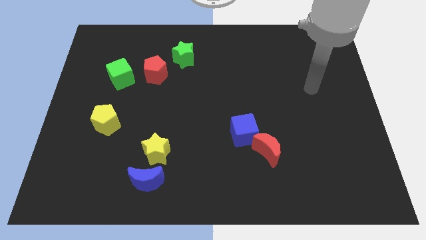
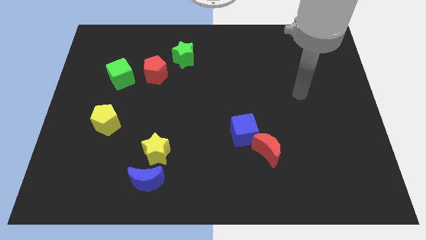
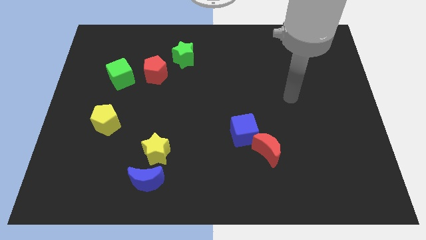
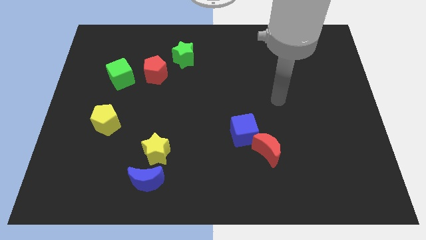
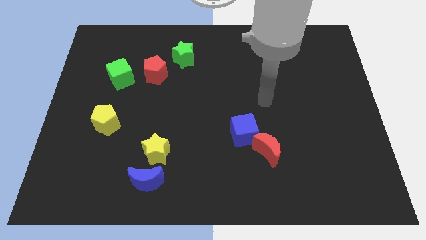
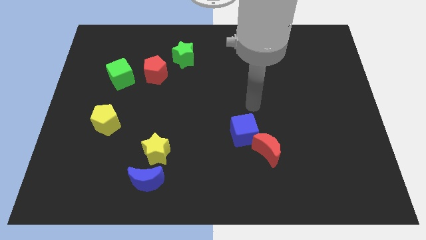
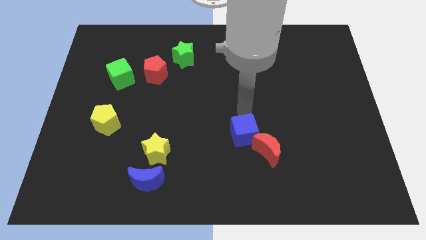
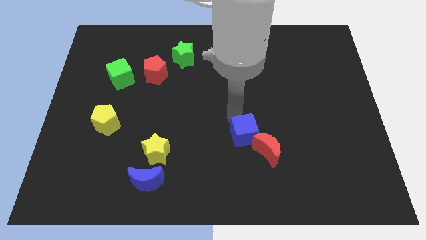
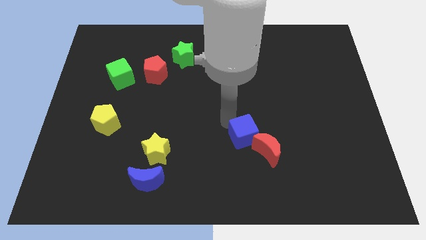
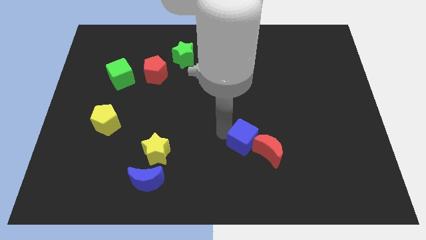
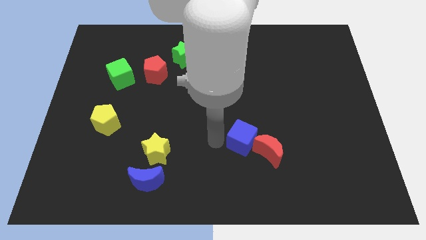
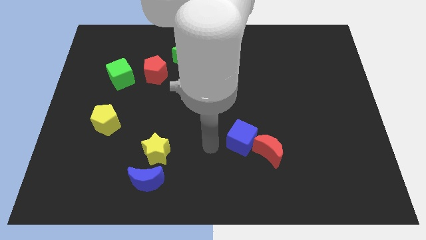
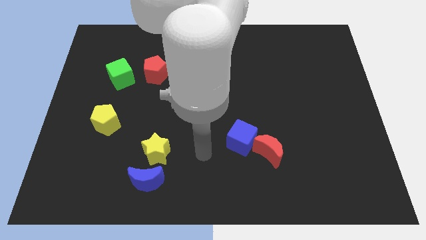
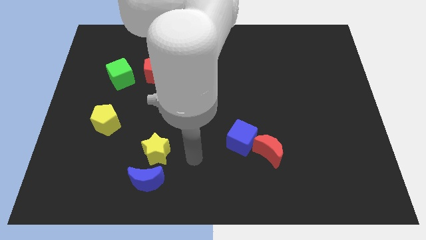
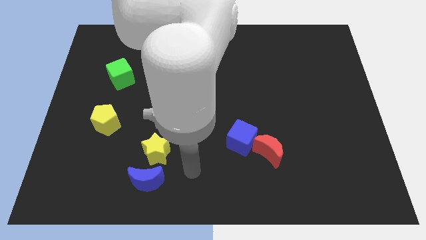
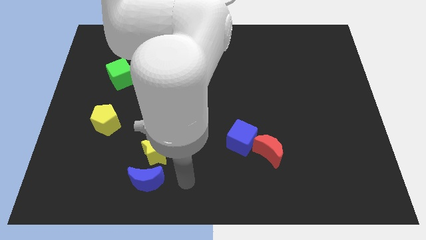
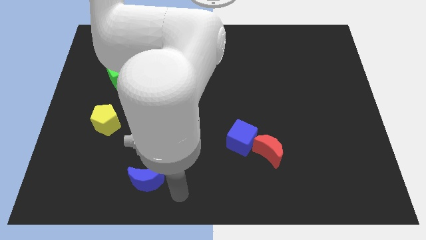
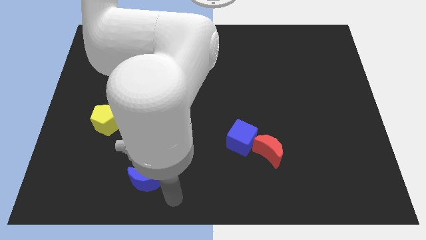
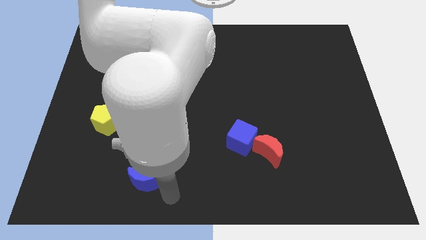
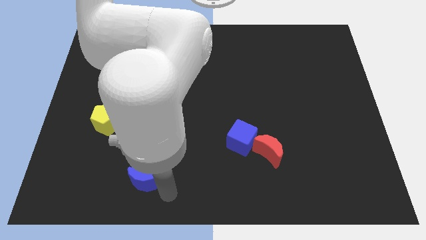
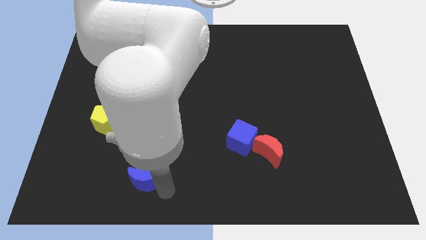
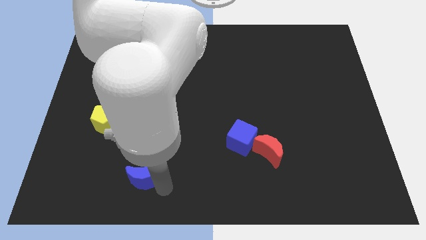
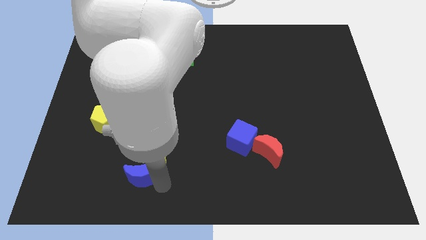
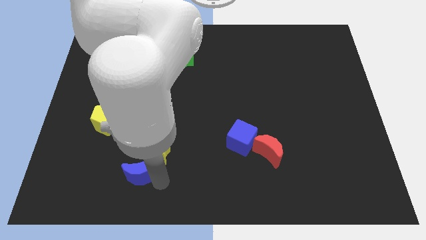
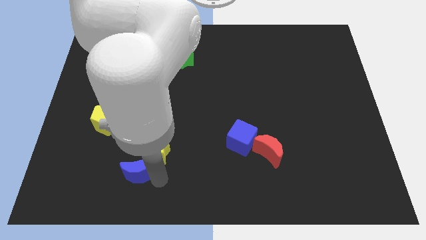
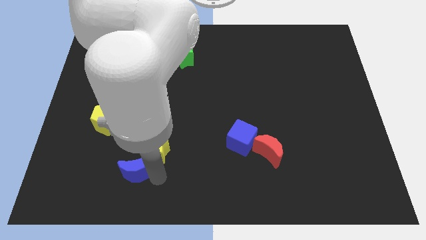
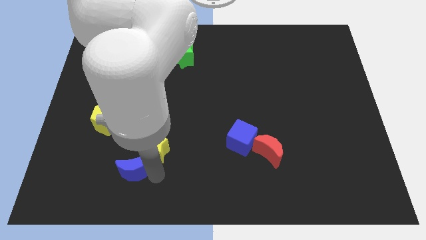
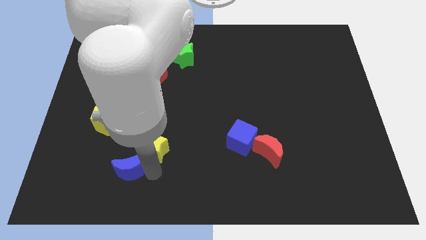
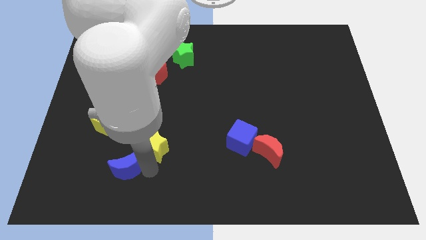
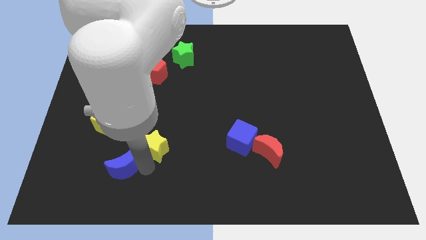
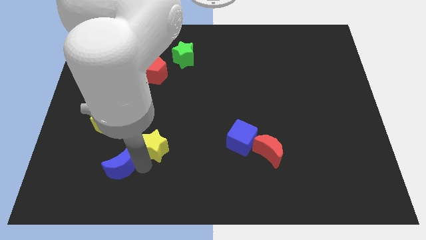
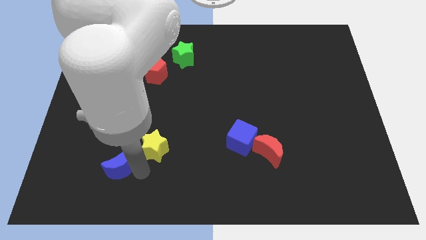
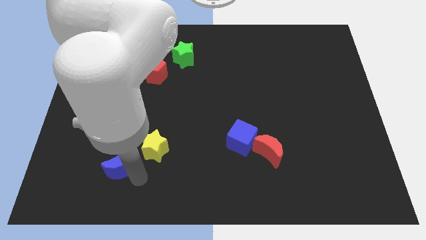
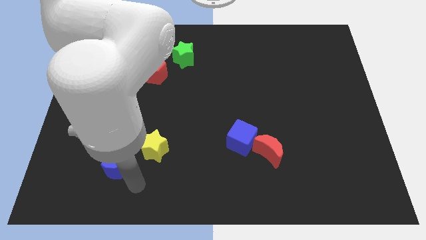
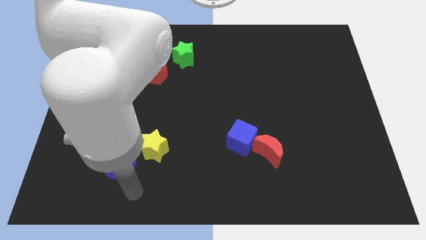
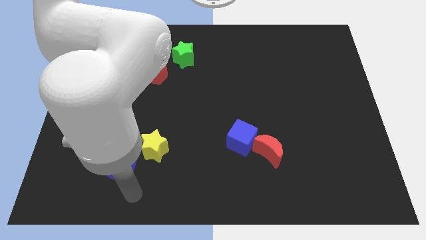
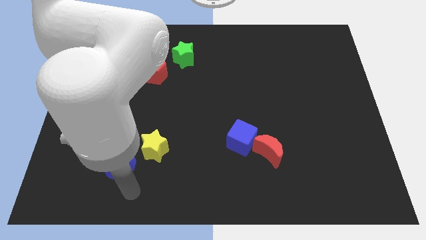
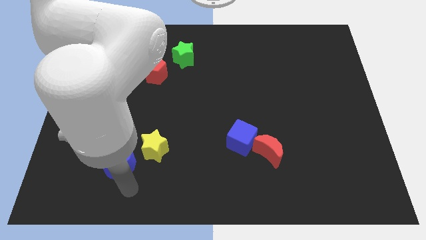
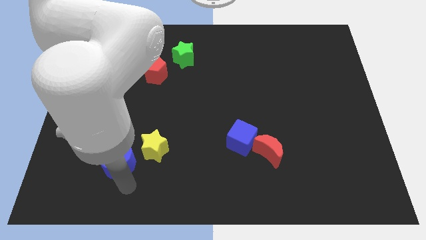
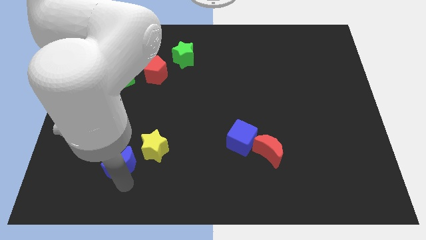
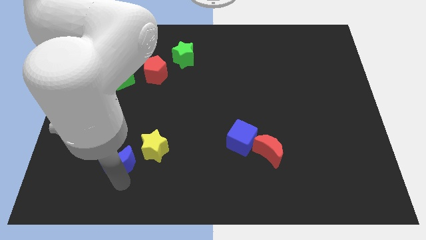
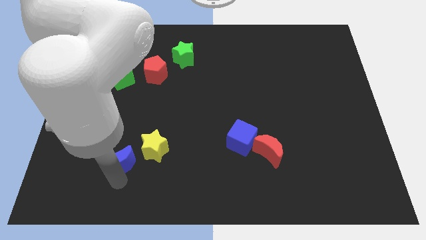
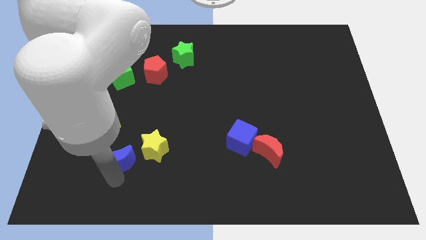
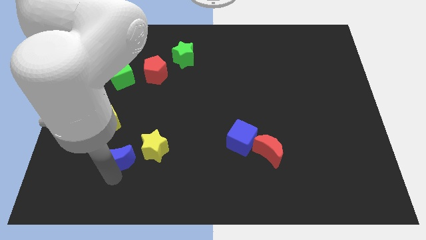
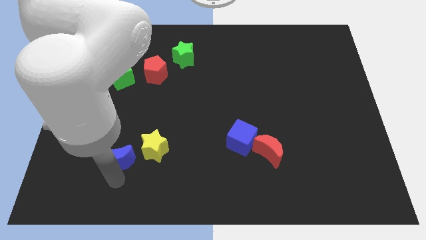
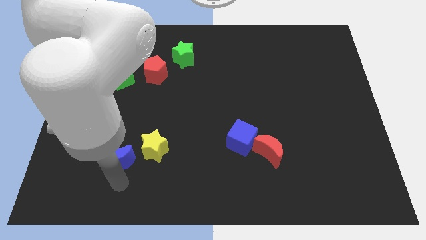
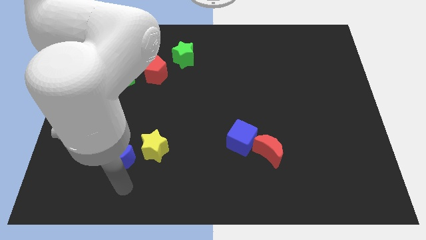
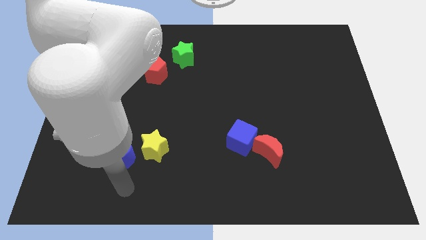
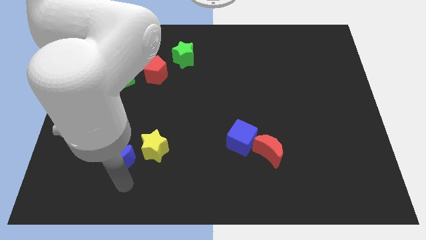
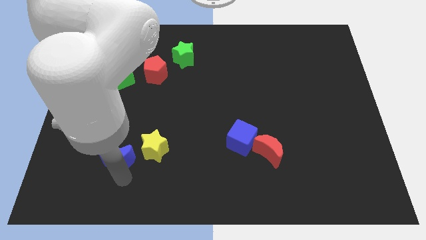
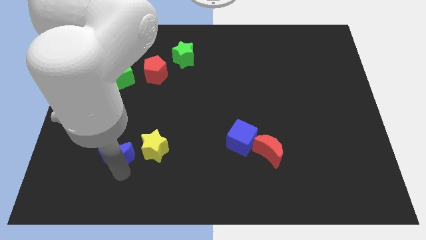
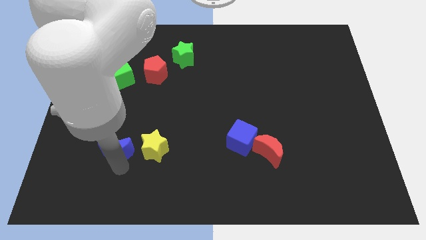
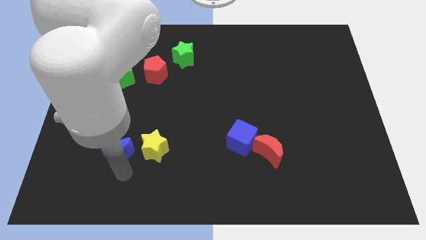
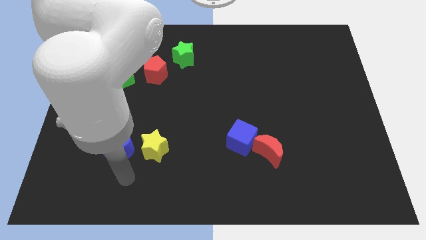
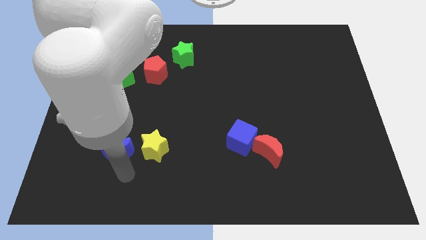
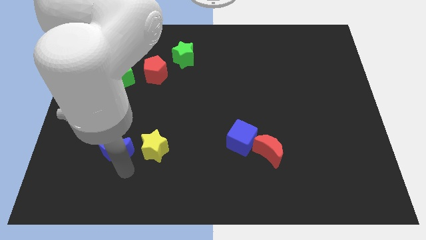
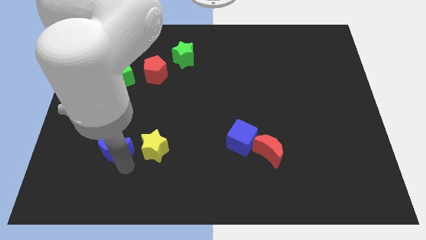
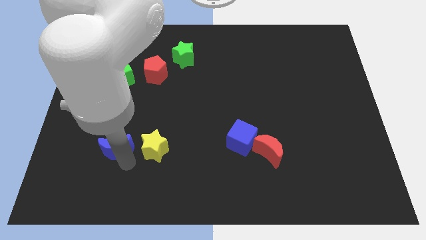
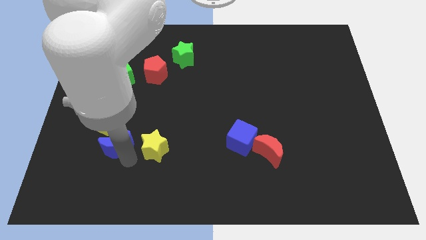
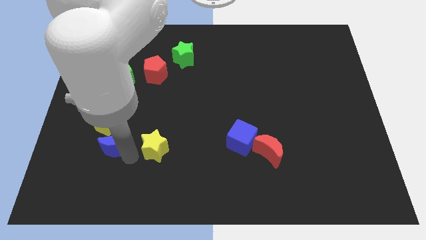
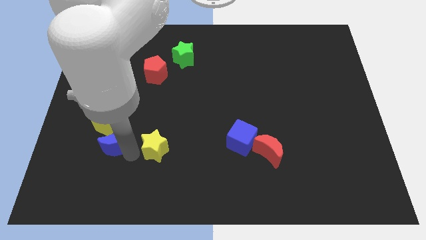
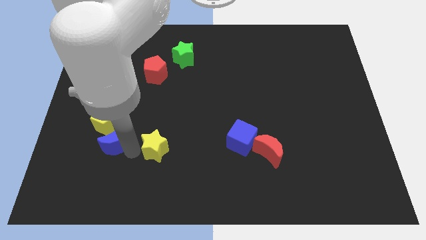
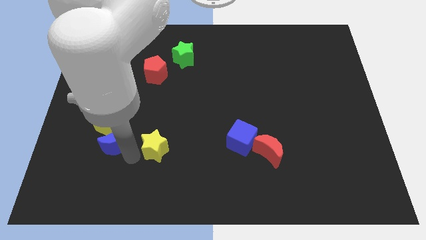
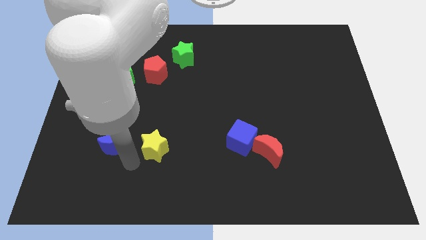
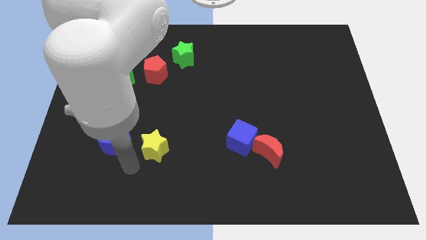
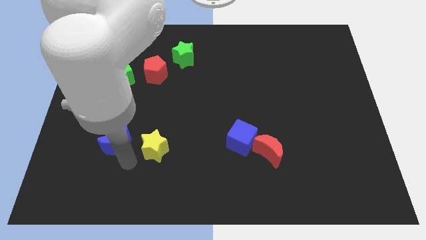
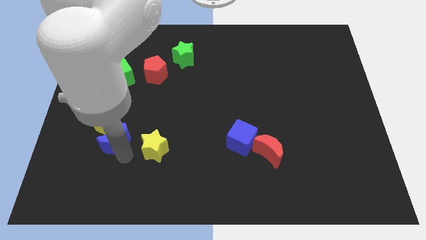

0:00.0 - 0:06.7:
move the blue moon next to the yellow pentagon

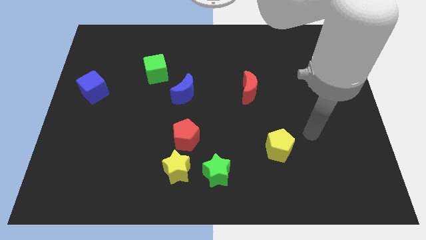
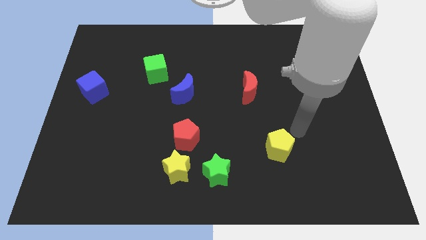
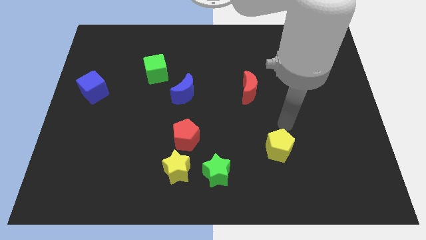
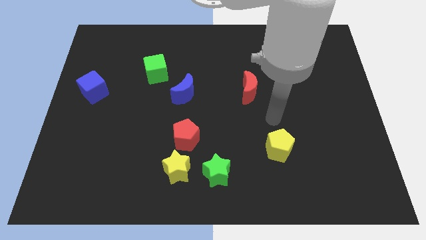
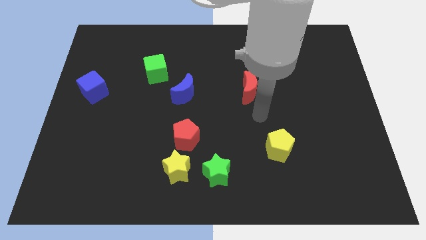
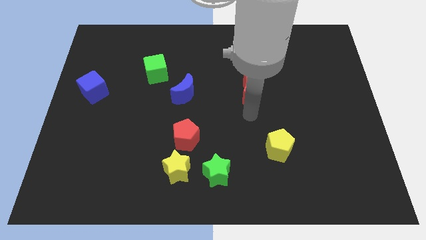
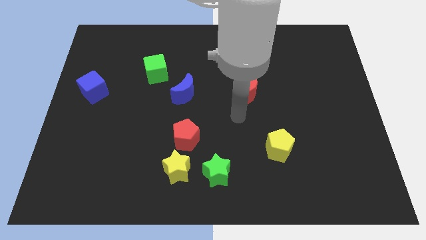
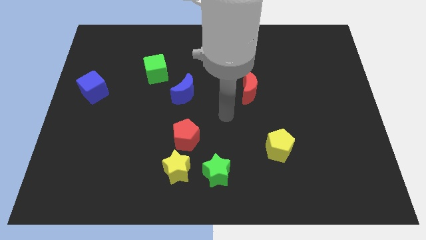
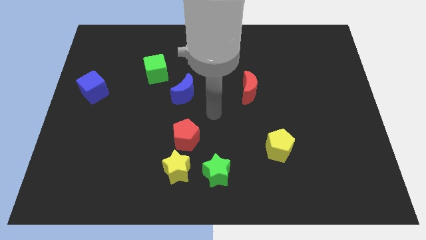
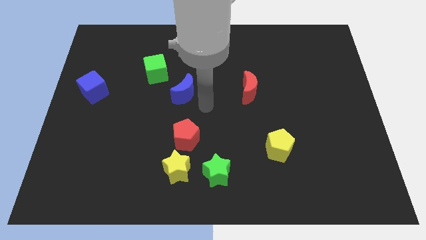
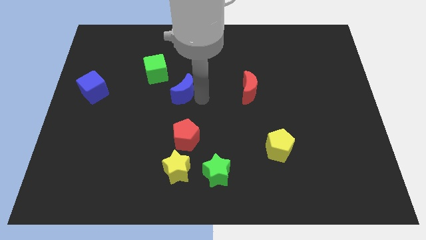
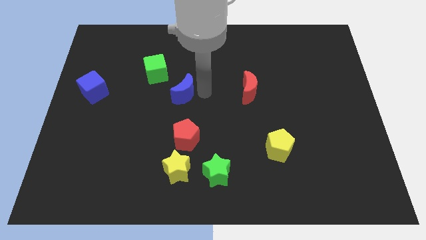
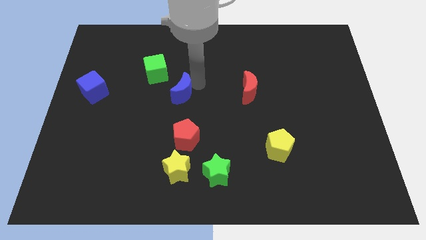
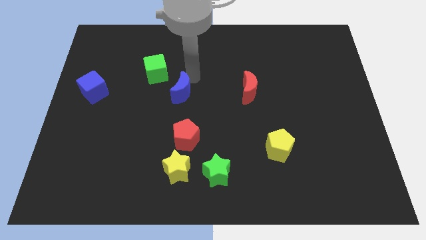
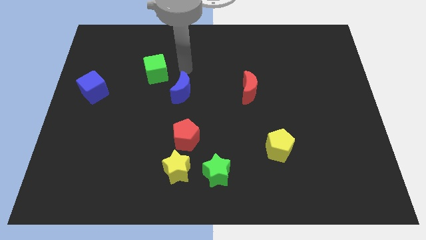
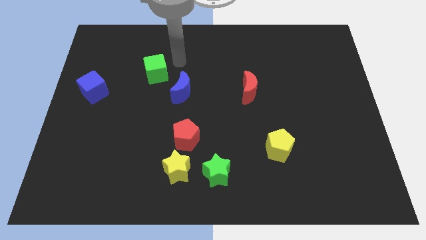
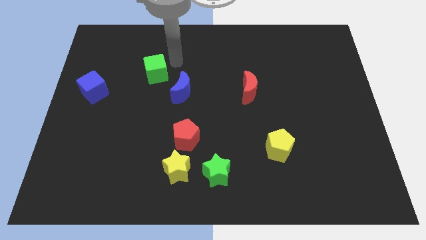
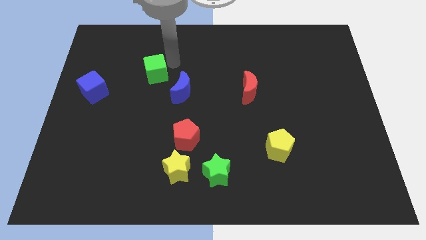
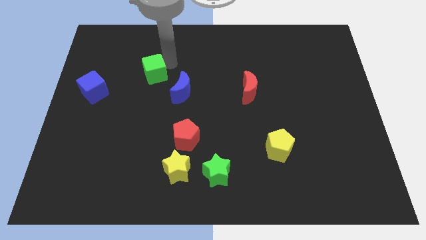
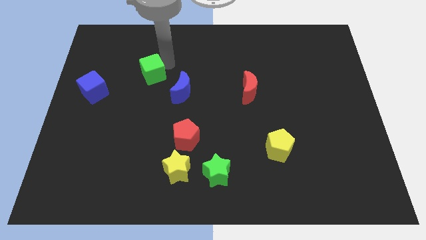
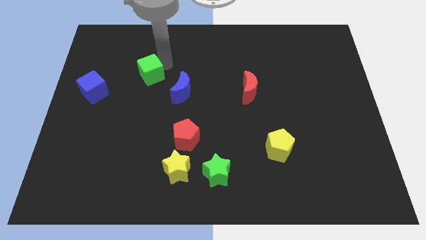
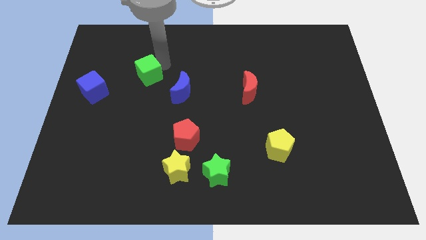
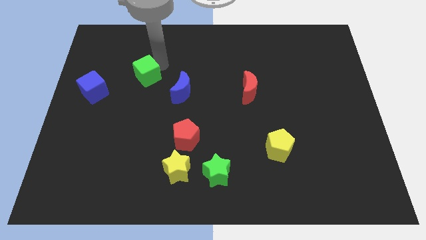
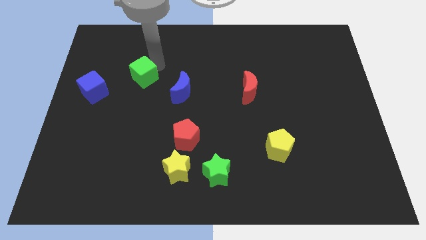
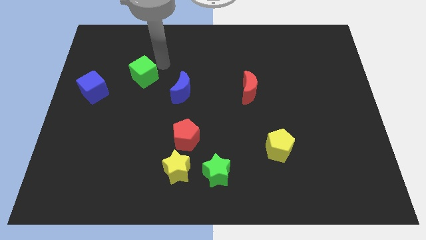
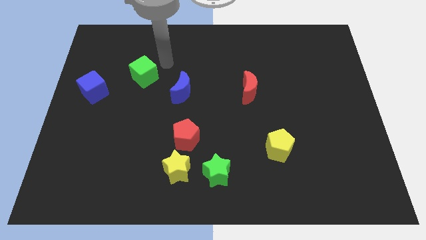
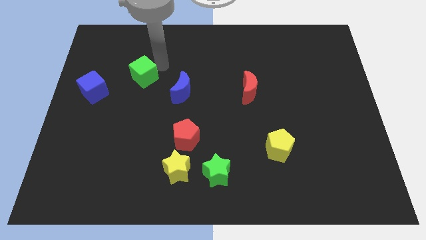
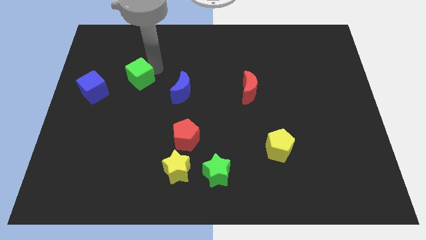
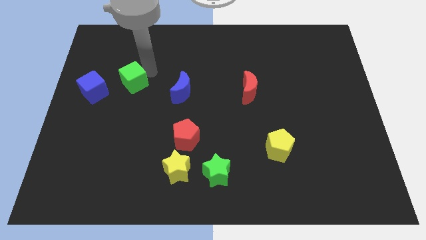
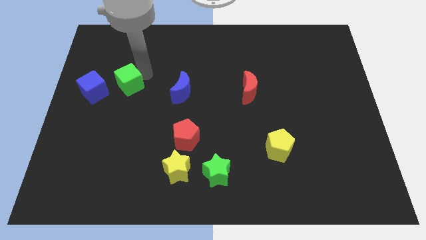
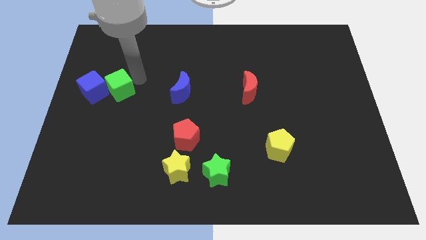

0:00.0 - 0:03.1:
push the green cube to the blue cube
